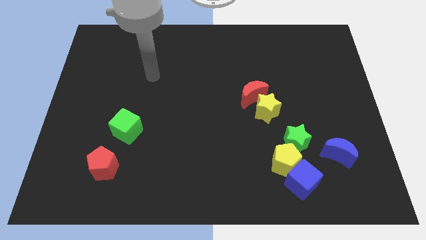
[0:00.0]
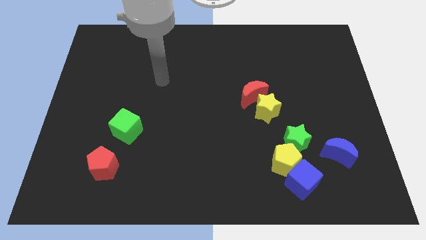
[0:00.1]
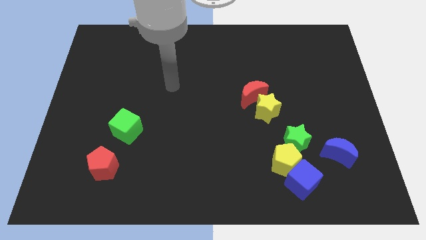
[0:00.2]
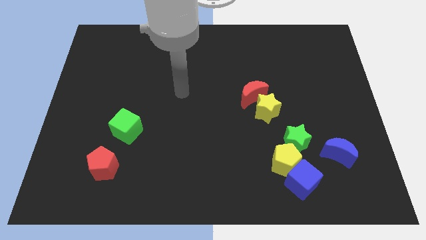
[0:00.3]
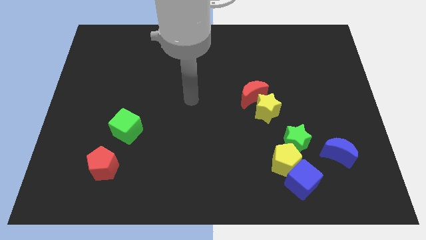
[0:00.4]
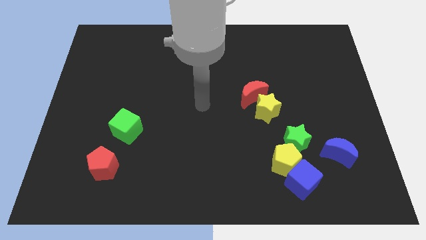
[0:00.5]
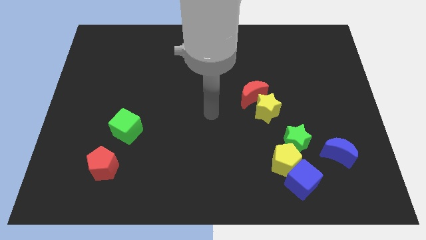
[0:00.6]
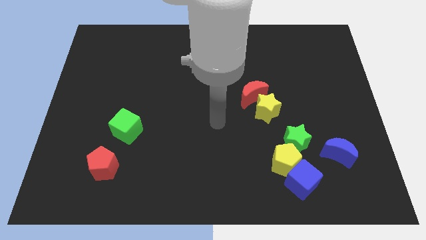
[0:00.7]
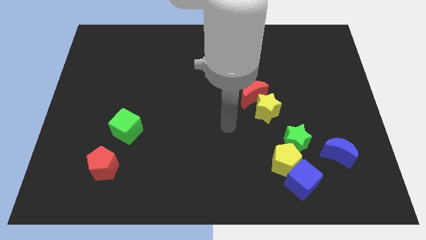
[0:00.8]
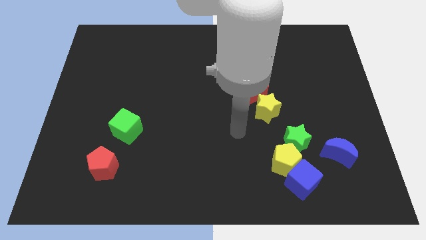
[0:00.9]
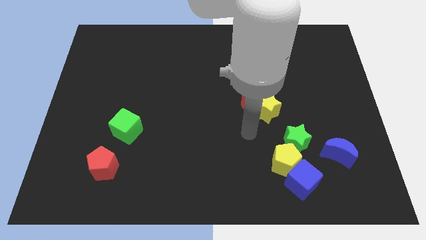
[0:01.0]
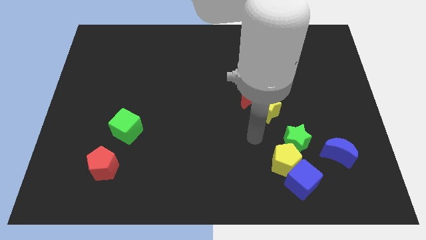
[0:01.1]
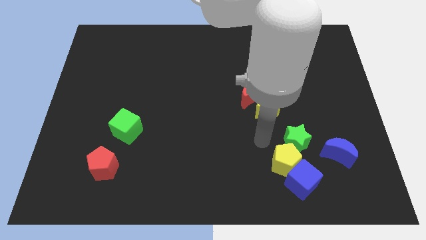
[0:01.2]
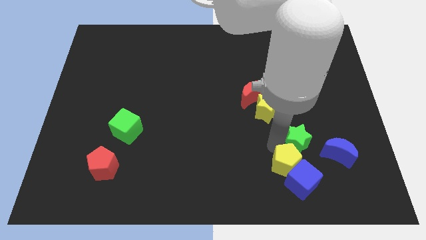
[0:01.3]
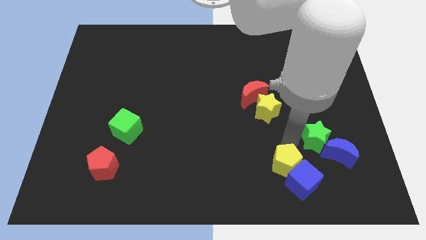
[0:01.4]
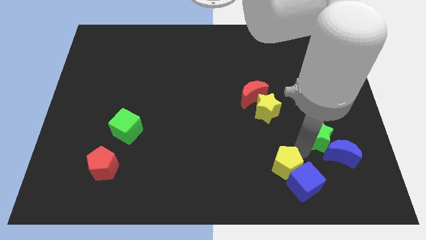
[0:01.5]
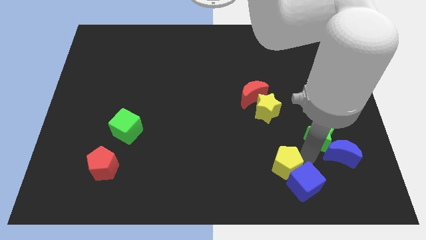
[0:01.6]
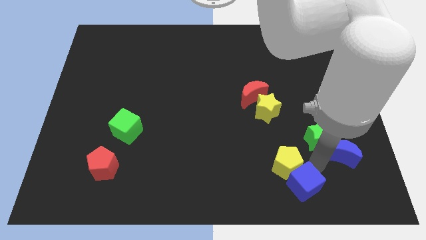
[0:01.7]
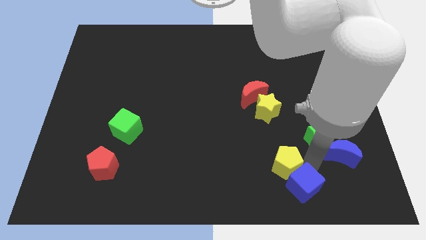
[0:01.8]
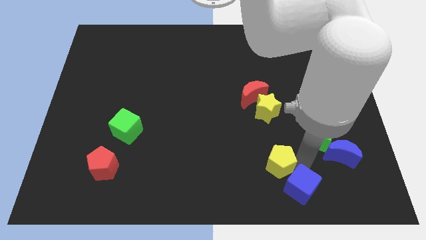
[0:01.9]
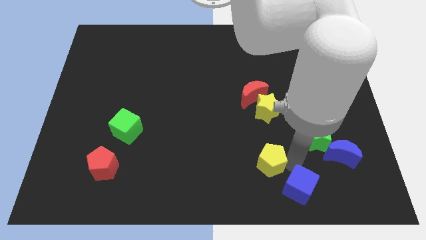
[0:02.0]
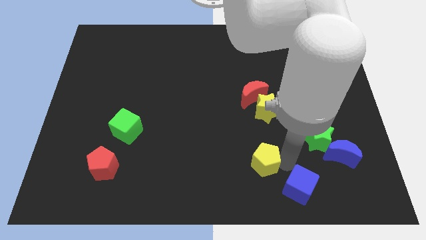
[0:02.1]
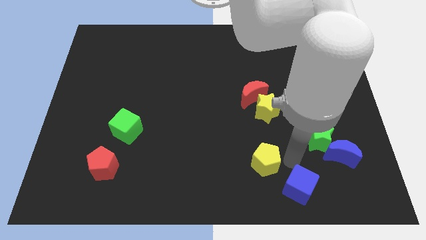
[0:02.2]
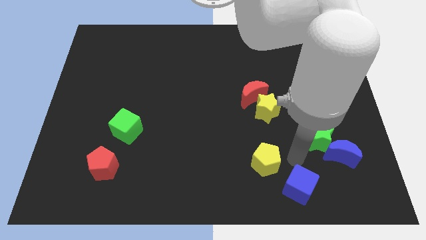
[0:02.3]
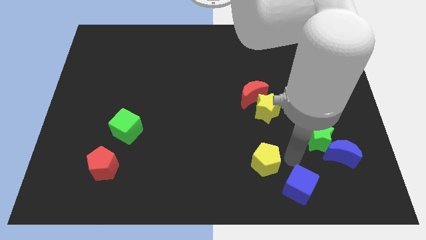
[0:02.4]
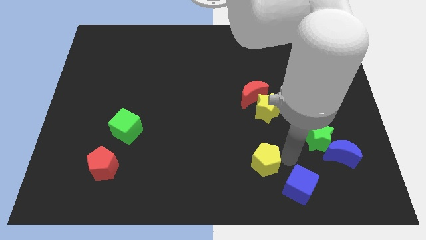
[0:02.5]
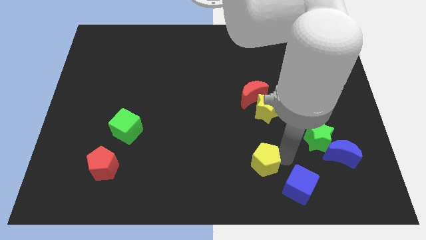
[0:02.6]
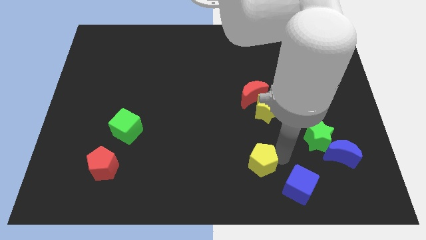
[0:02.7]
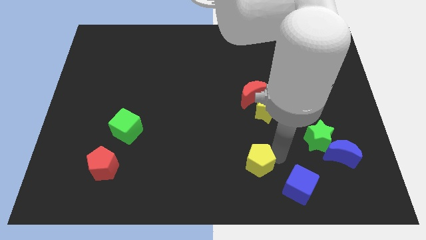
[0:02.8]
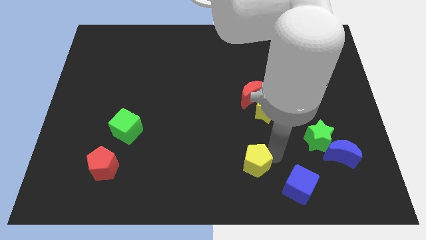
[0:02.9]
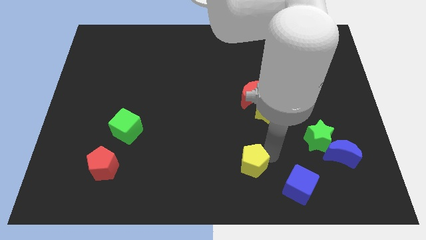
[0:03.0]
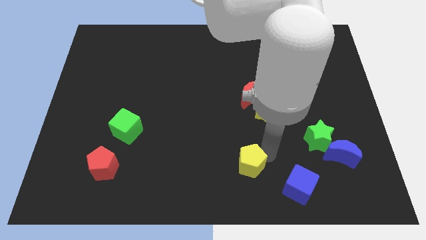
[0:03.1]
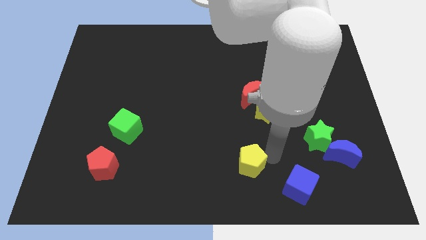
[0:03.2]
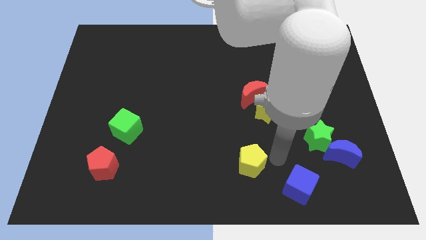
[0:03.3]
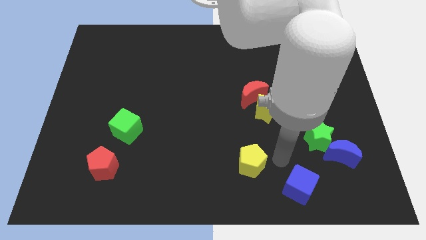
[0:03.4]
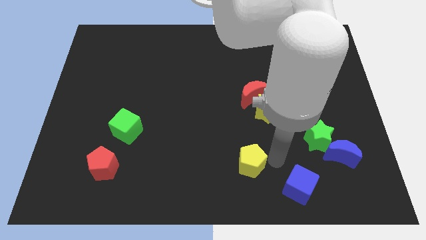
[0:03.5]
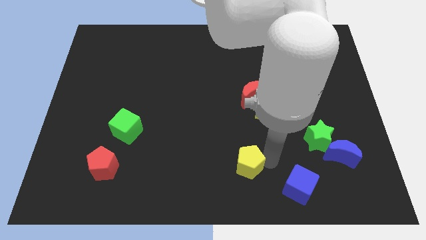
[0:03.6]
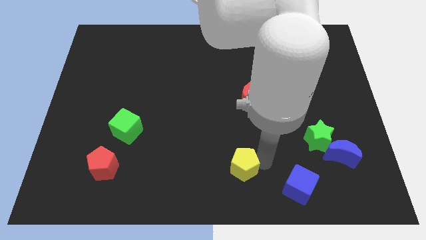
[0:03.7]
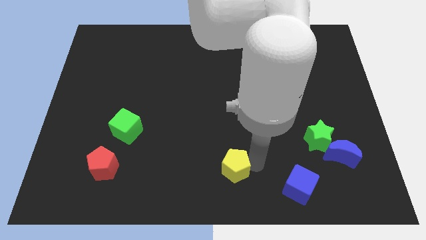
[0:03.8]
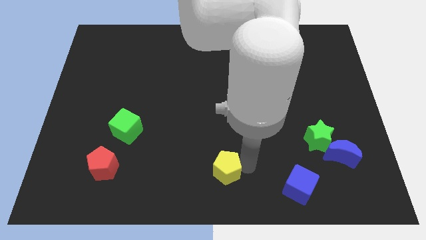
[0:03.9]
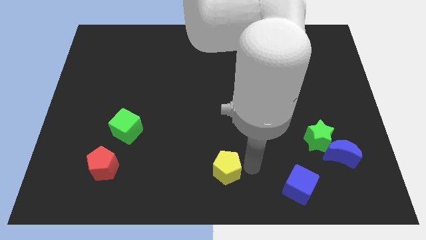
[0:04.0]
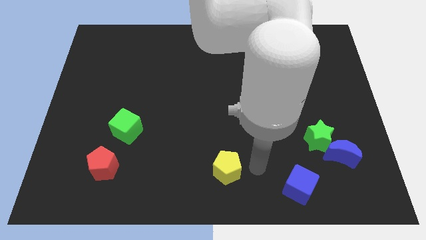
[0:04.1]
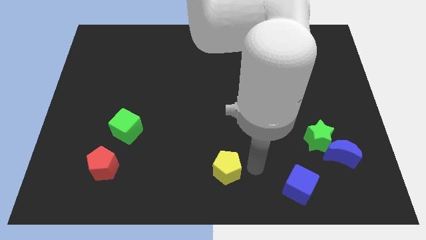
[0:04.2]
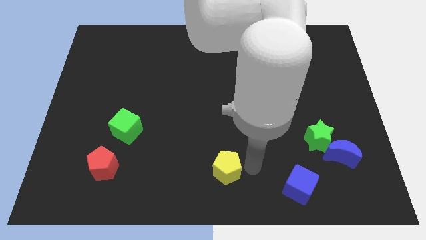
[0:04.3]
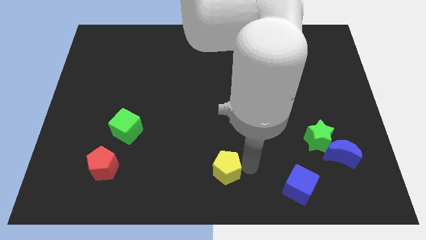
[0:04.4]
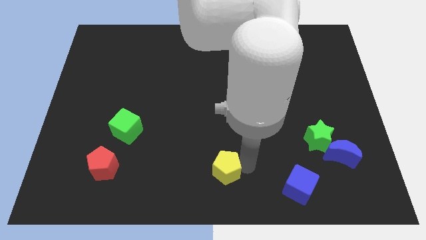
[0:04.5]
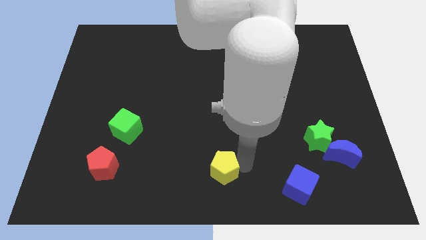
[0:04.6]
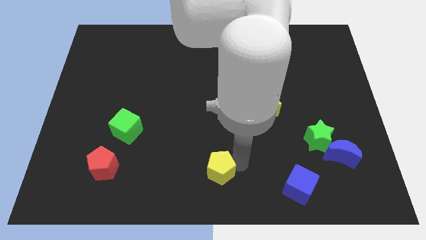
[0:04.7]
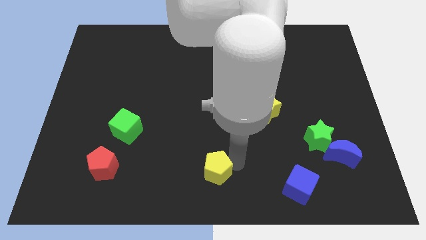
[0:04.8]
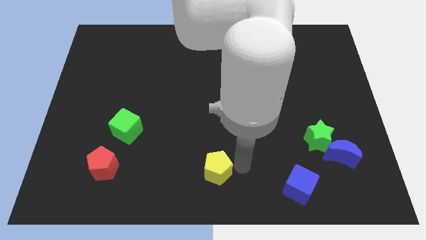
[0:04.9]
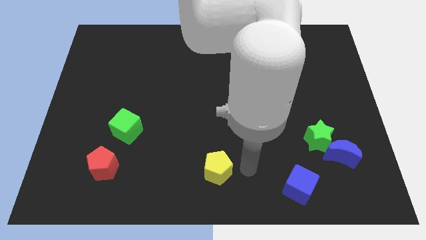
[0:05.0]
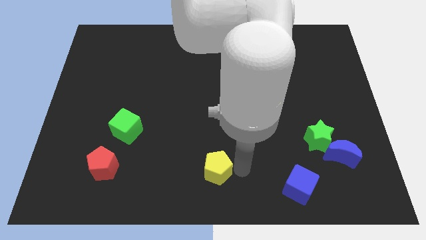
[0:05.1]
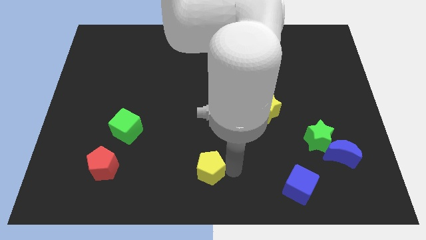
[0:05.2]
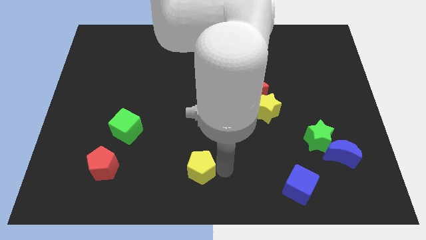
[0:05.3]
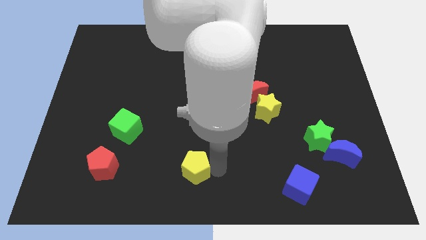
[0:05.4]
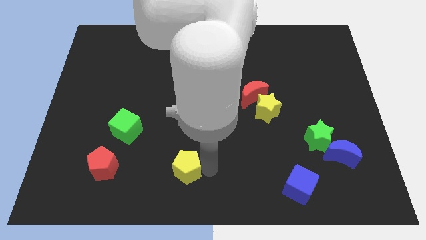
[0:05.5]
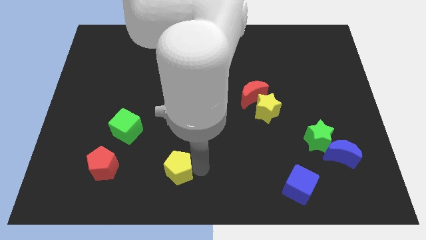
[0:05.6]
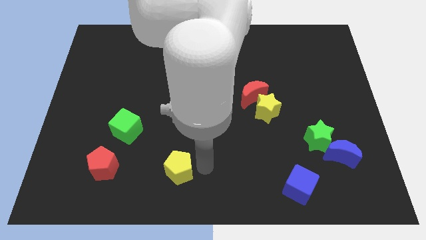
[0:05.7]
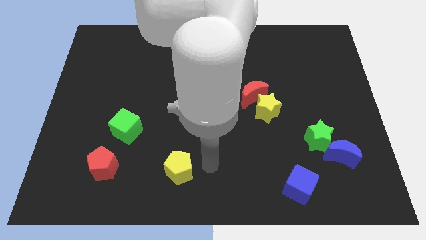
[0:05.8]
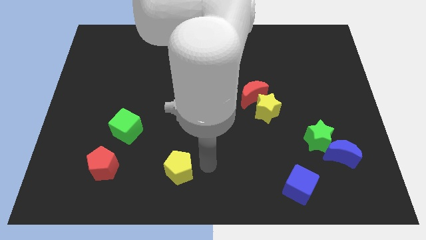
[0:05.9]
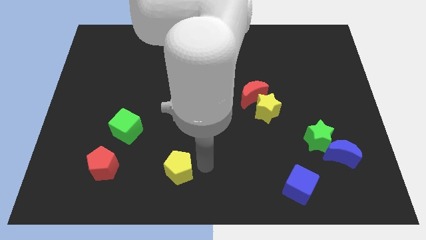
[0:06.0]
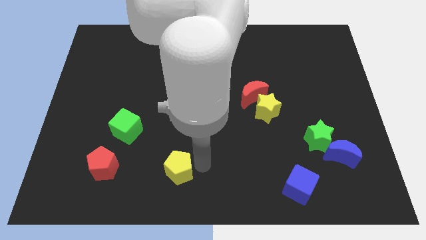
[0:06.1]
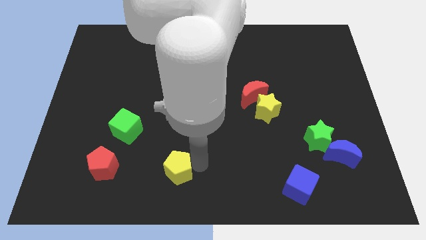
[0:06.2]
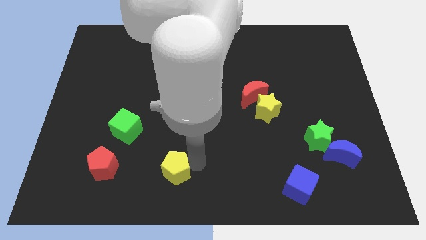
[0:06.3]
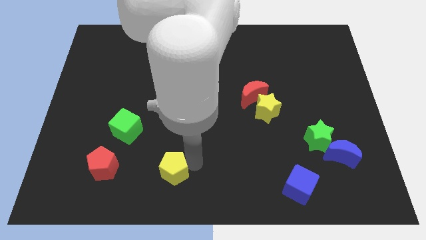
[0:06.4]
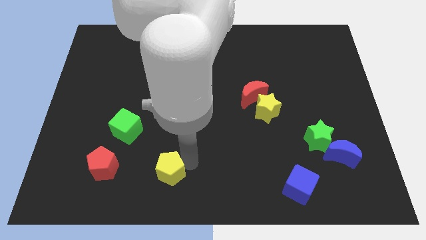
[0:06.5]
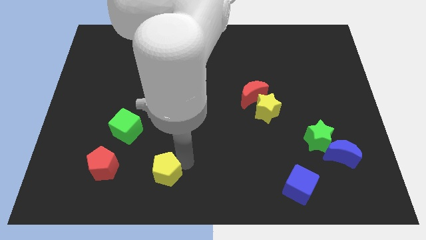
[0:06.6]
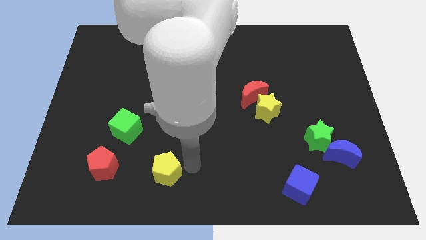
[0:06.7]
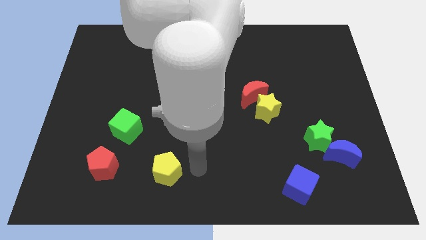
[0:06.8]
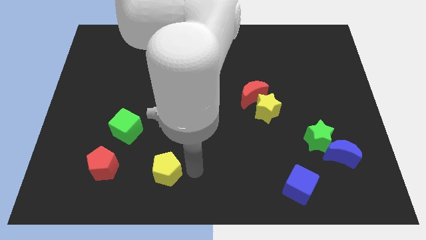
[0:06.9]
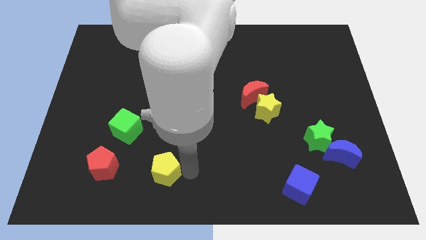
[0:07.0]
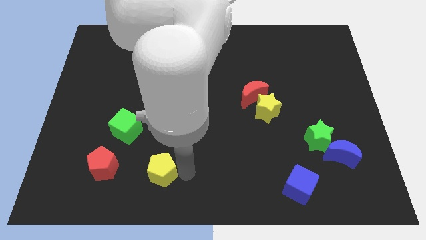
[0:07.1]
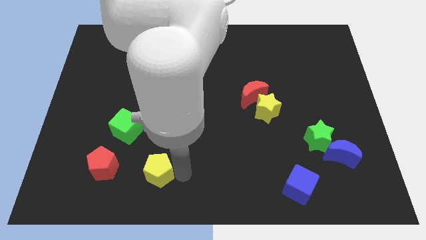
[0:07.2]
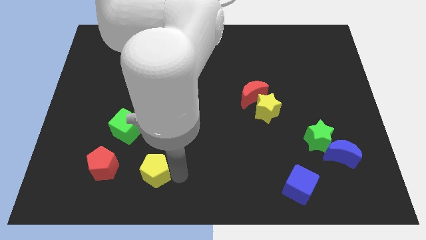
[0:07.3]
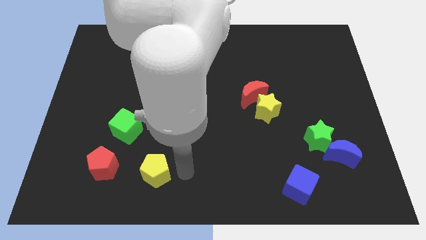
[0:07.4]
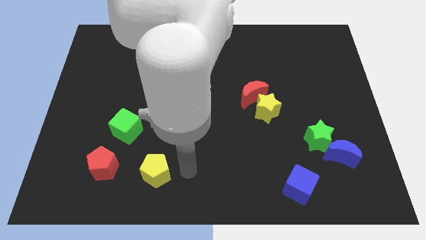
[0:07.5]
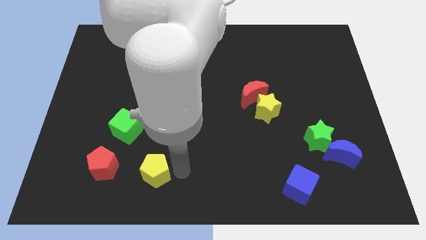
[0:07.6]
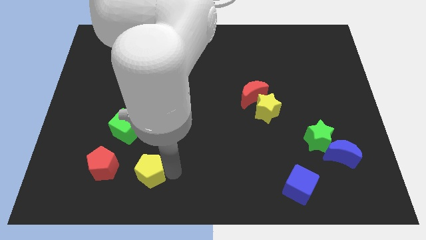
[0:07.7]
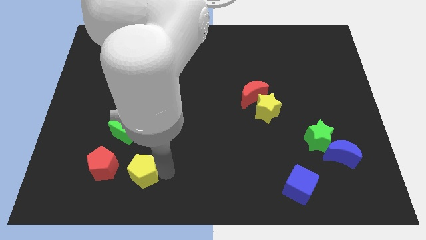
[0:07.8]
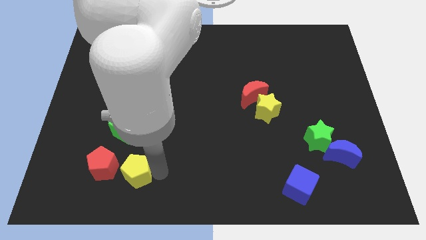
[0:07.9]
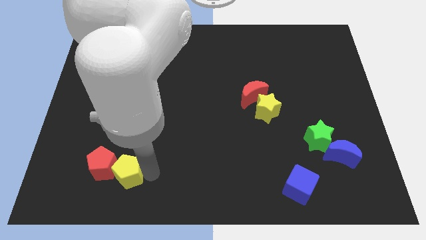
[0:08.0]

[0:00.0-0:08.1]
move the yellow pentagon to the red pentagon
